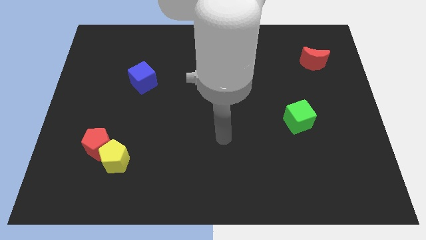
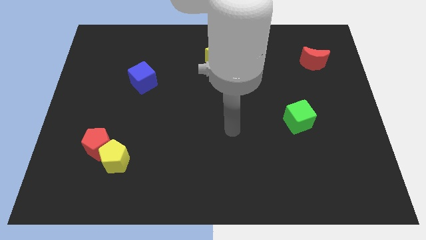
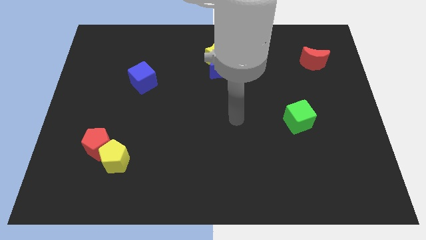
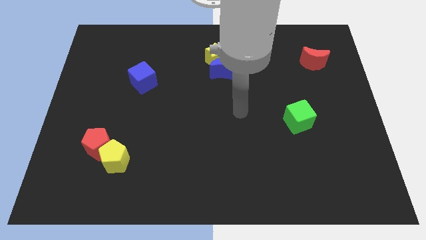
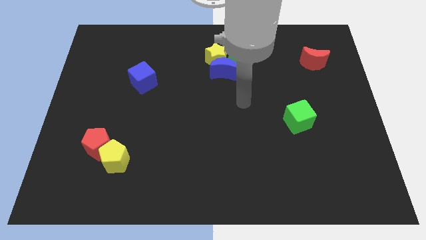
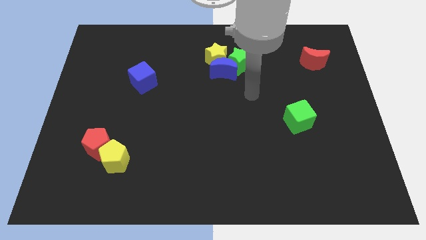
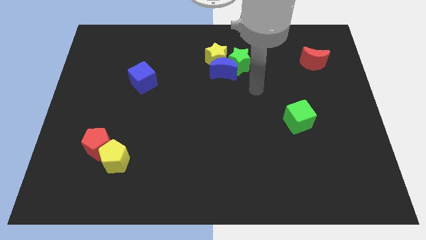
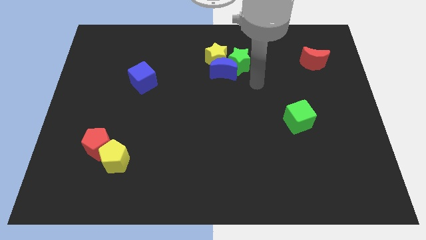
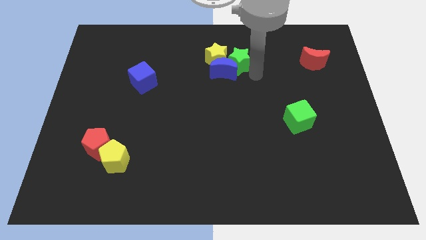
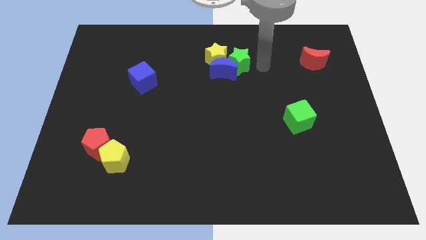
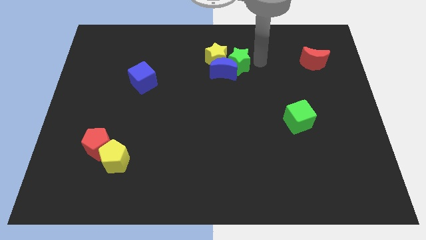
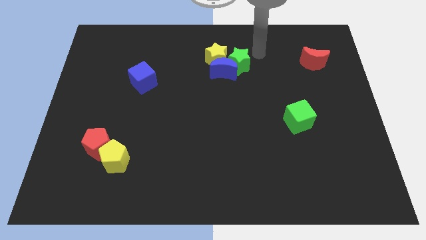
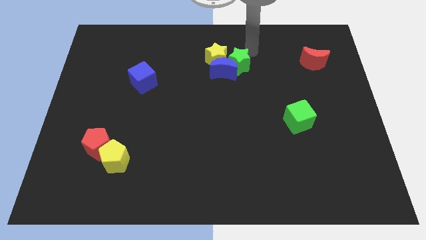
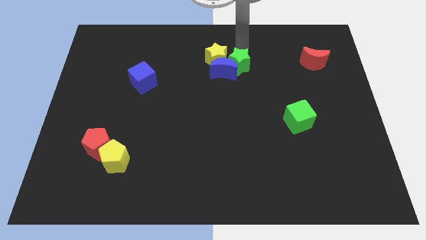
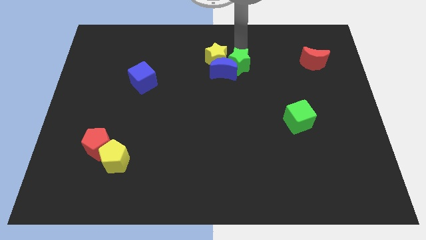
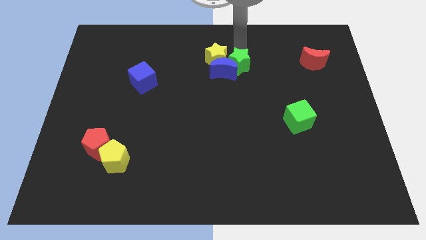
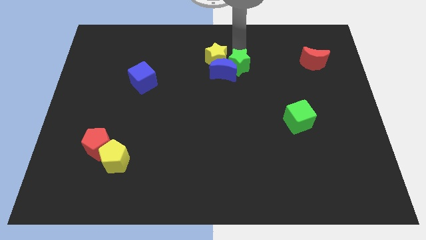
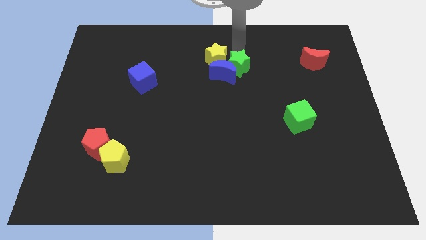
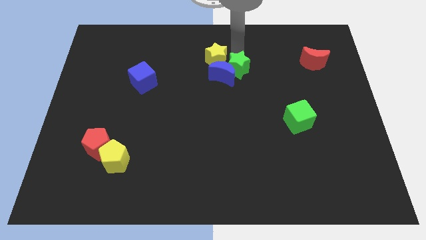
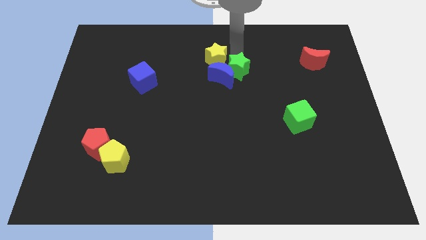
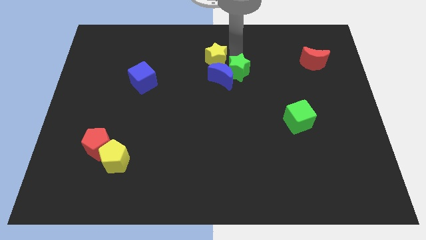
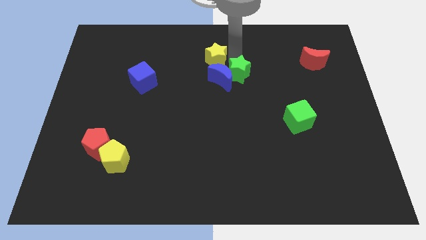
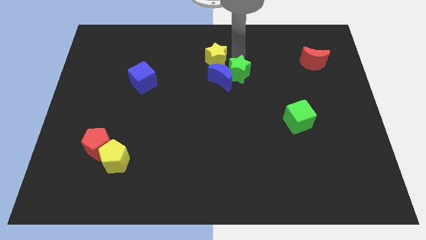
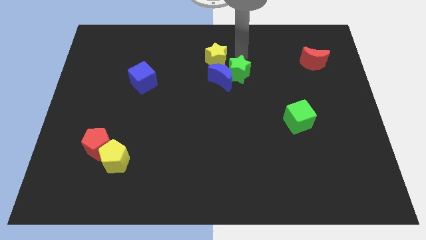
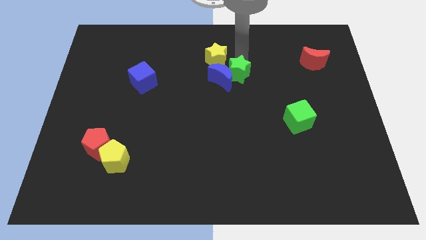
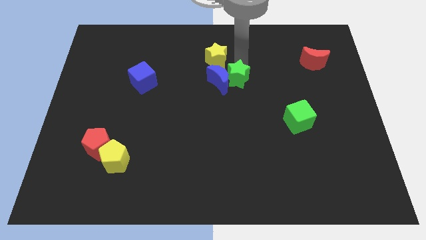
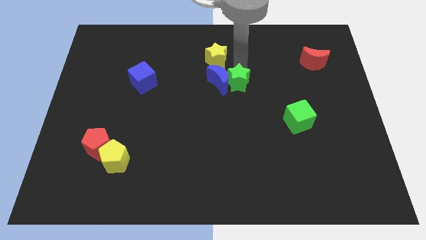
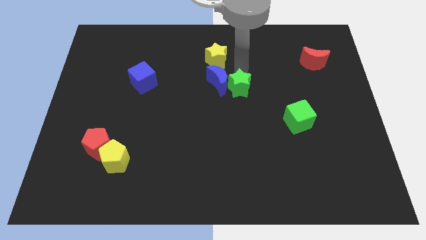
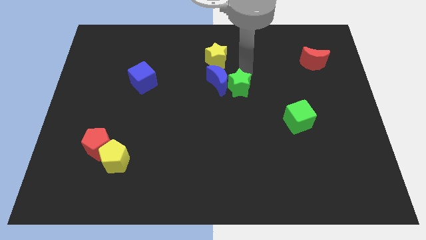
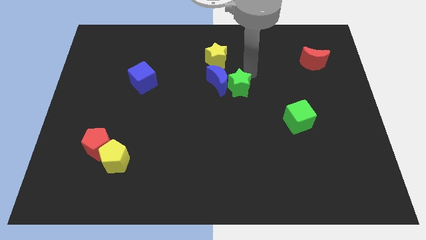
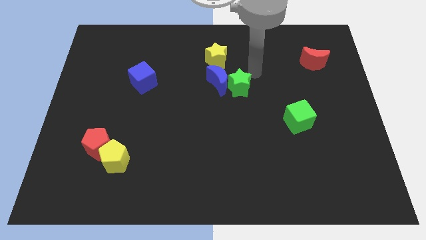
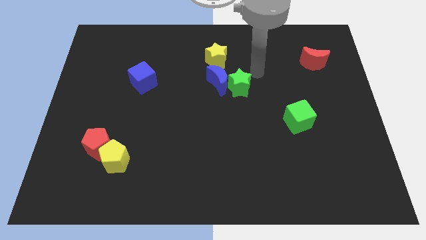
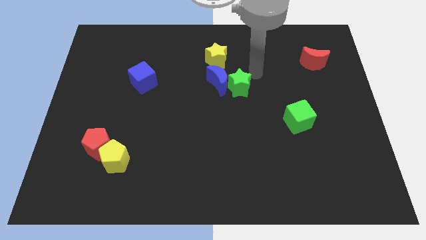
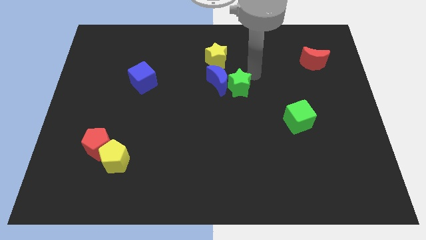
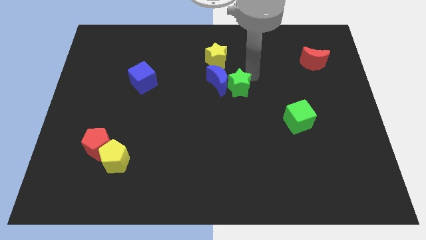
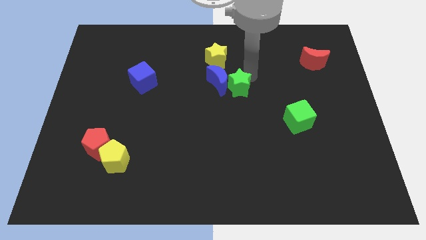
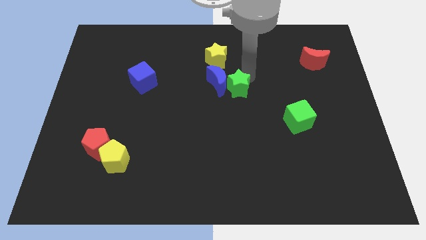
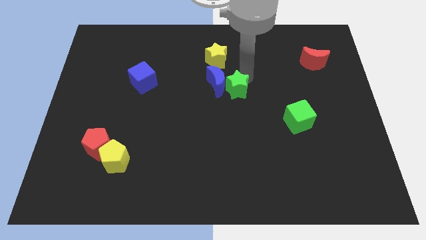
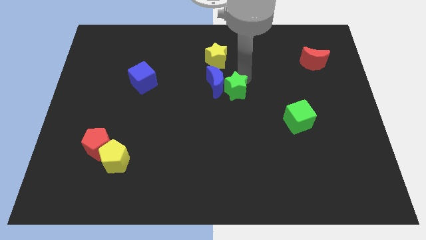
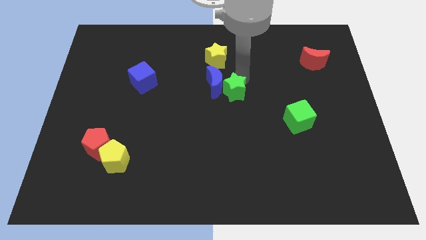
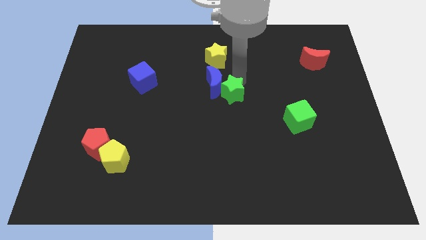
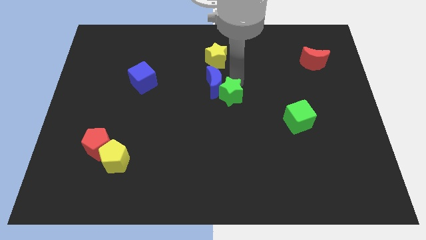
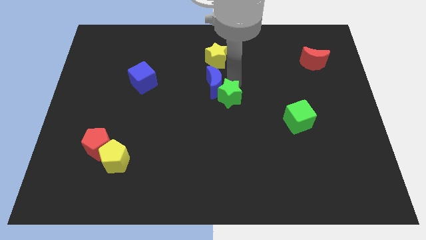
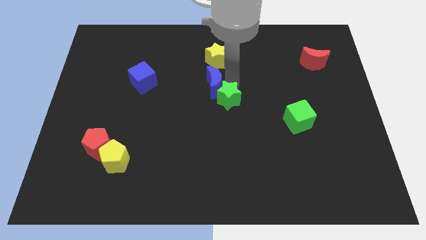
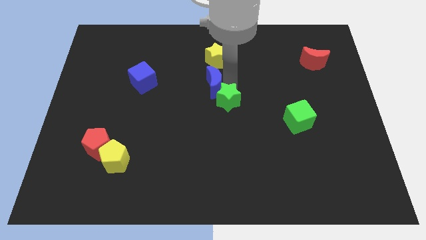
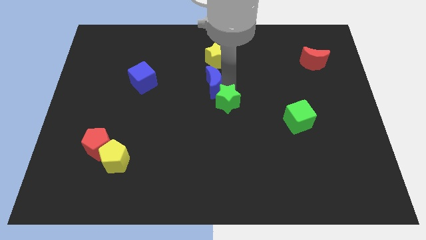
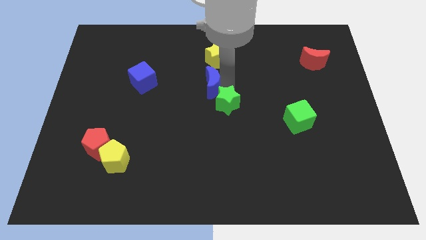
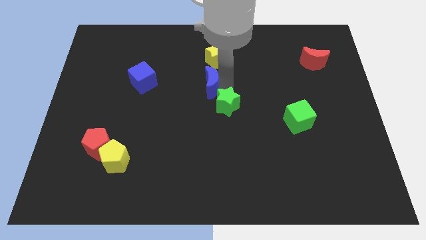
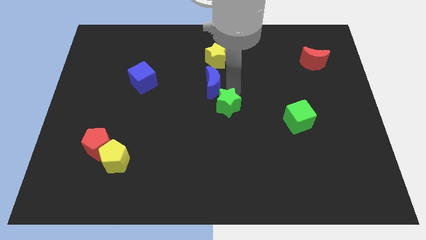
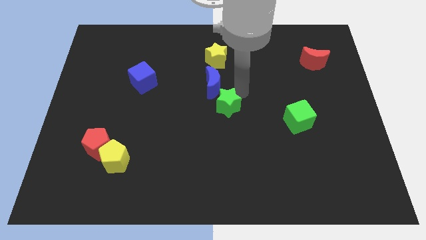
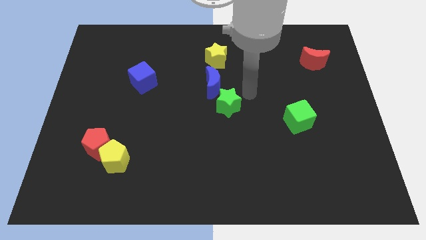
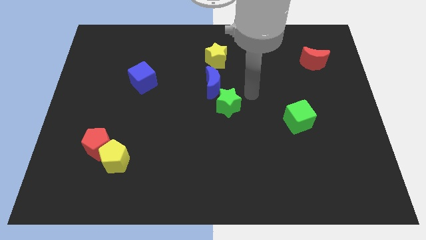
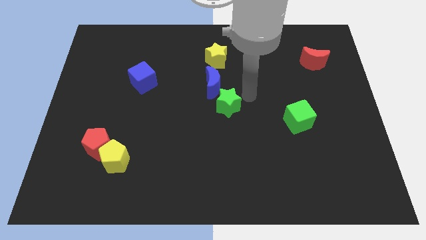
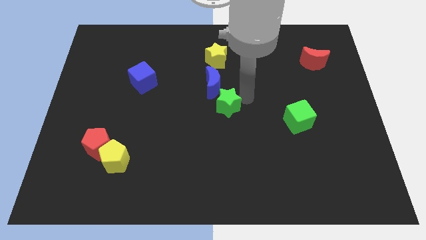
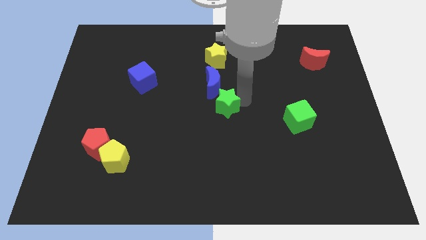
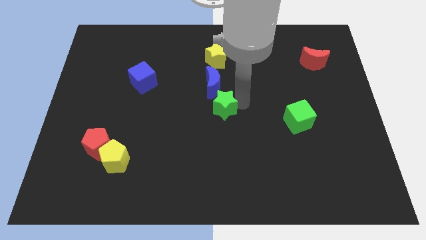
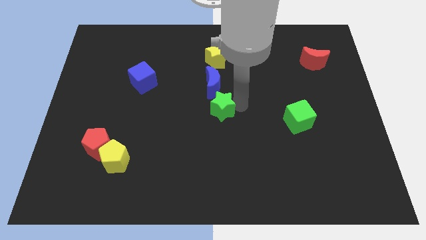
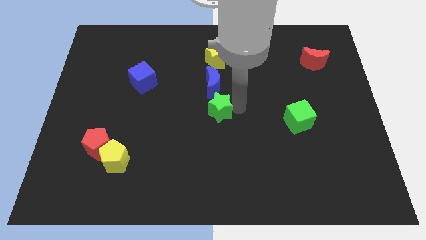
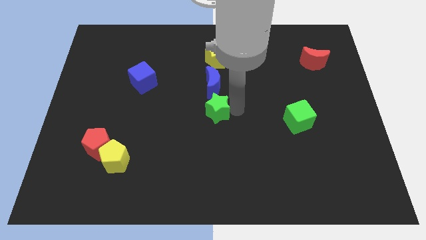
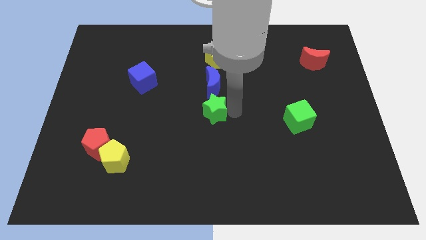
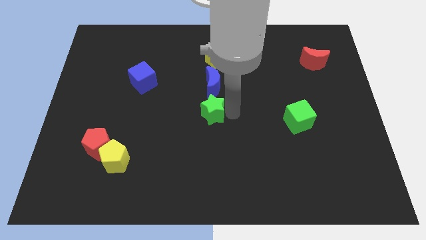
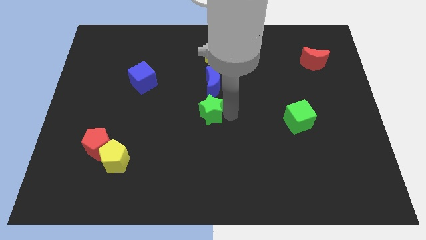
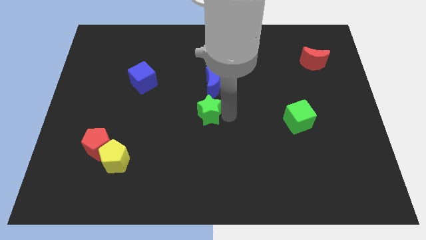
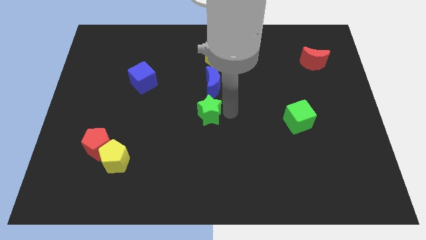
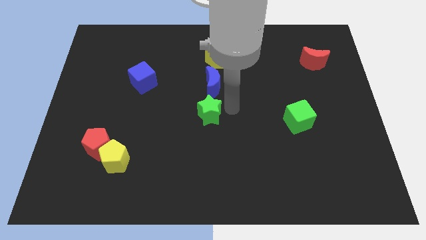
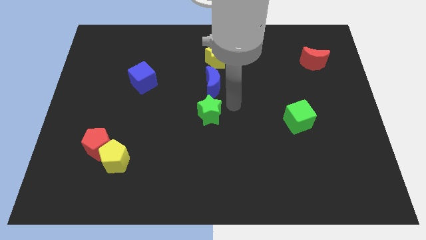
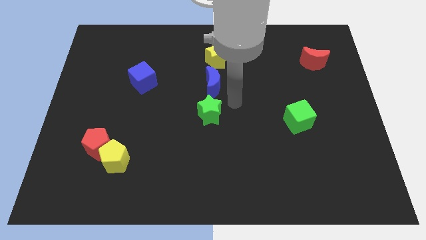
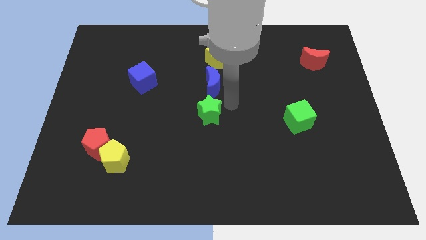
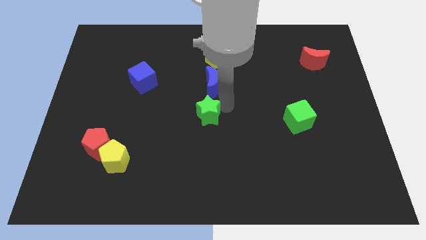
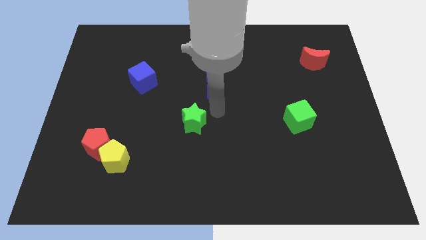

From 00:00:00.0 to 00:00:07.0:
push the green star downwards and then to the left

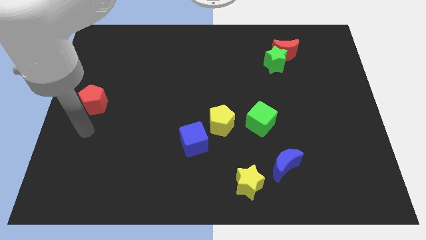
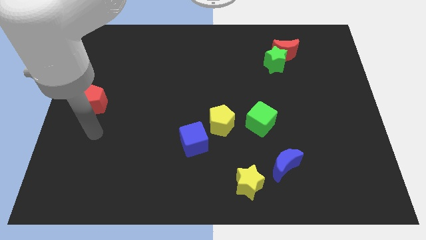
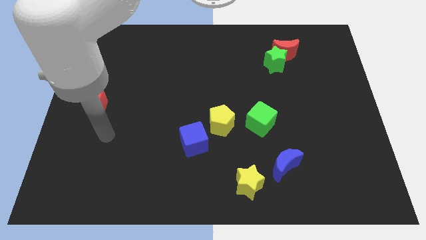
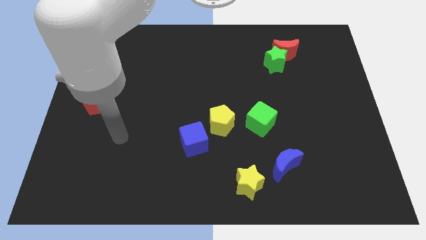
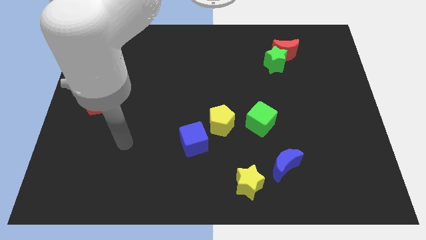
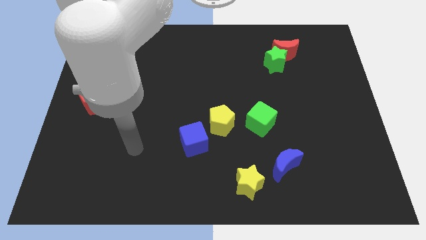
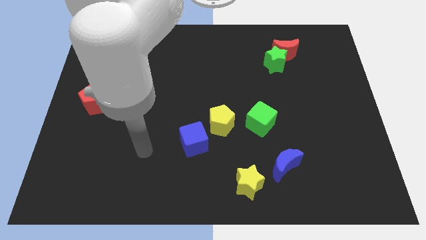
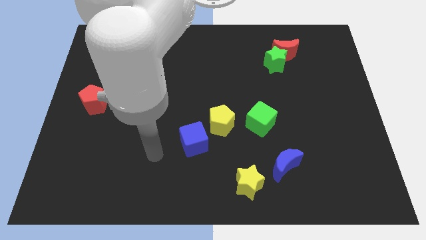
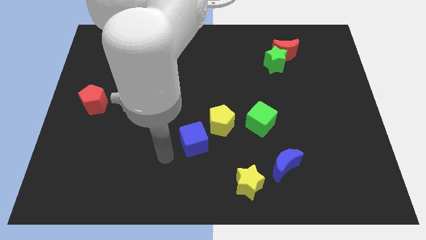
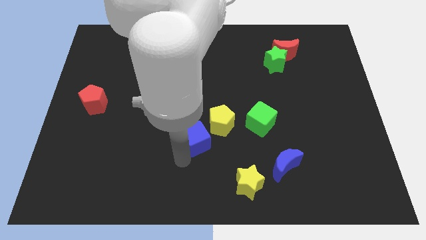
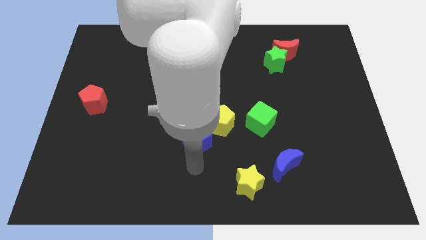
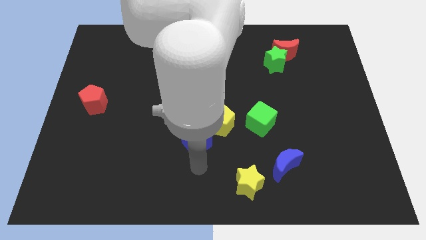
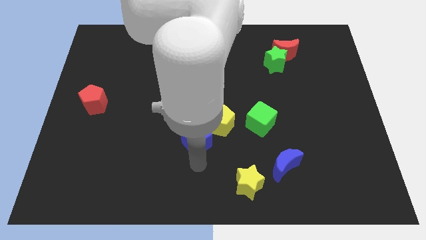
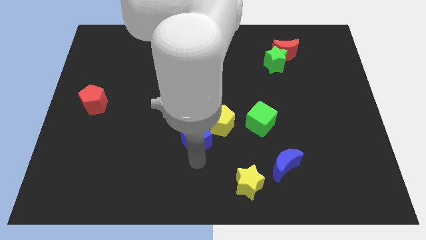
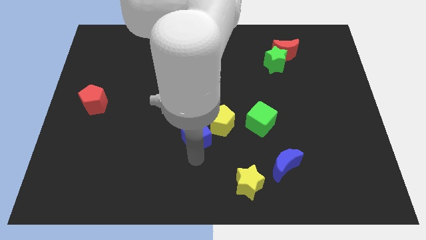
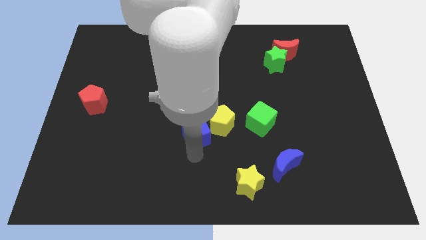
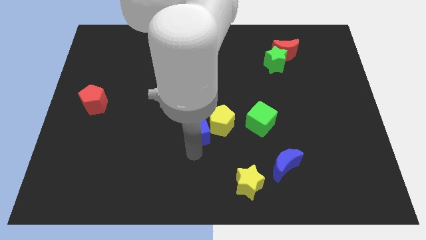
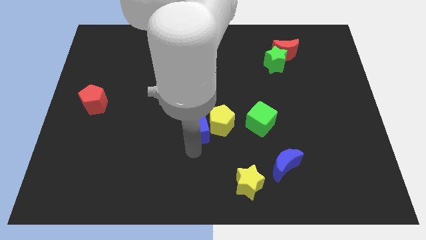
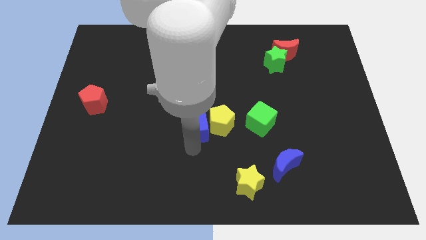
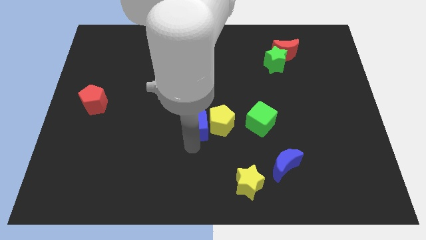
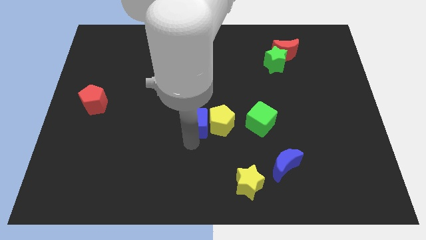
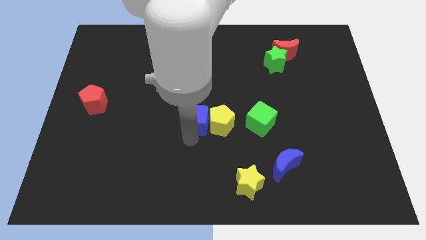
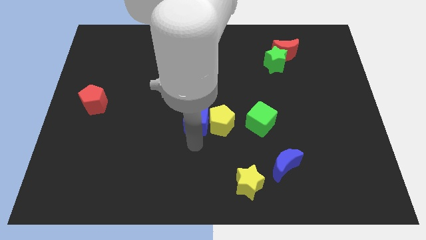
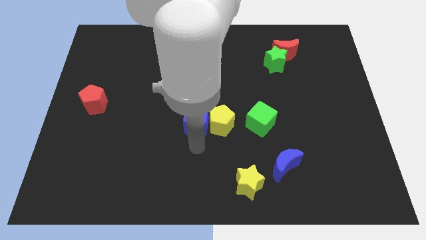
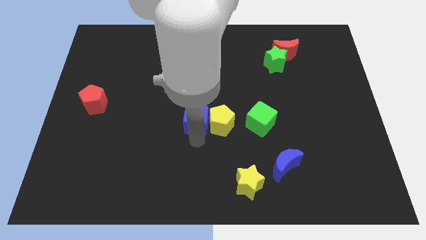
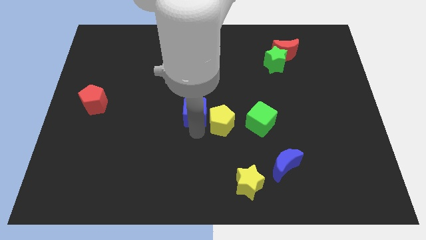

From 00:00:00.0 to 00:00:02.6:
slightly move the blue cube up
